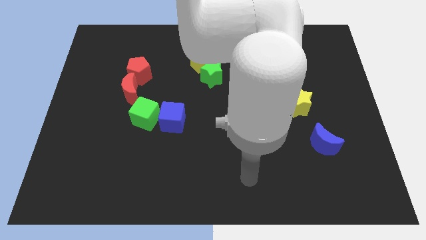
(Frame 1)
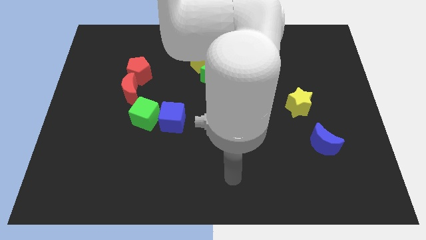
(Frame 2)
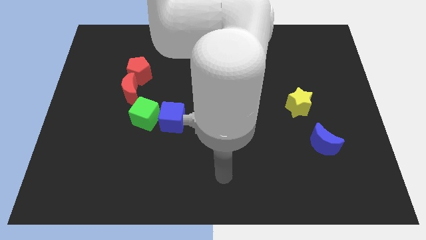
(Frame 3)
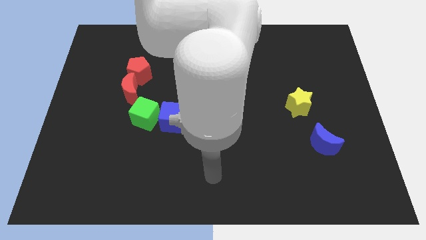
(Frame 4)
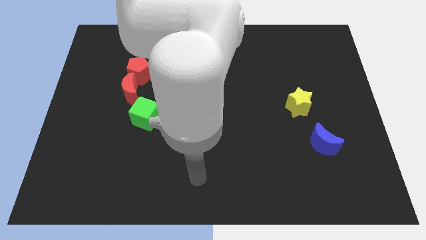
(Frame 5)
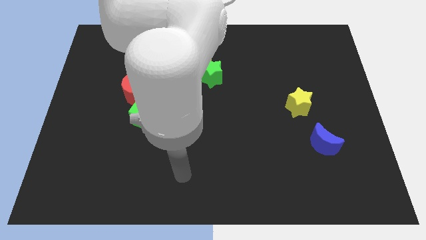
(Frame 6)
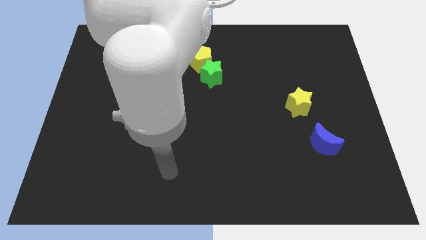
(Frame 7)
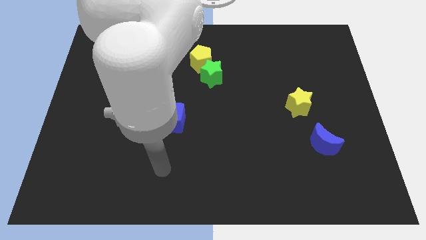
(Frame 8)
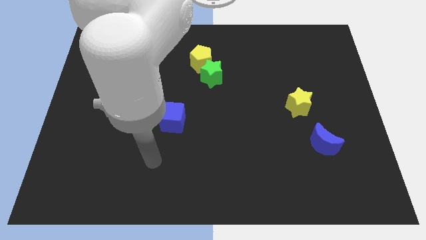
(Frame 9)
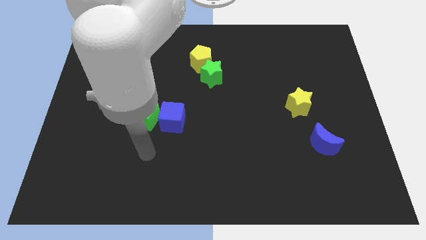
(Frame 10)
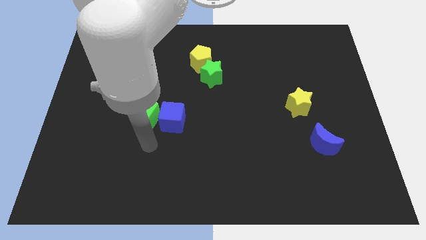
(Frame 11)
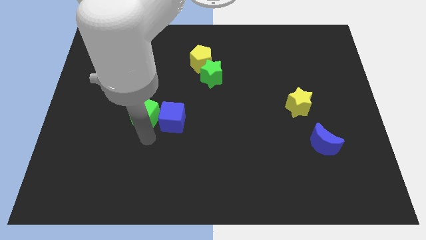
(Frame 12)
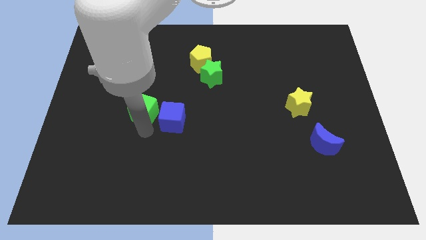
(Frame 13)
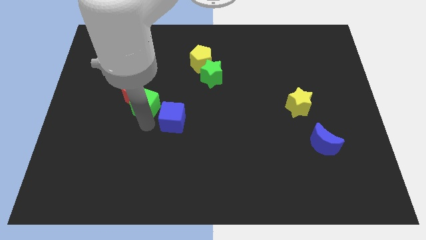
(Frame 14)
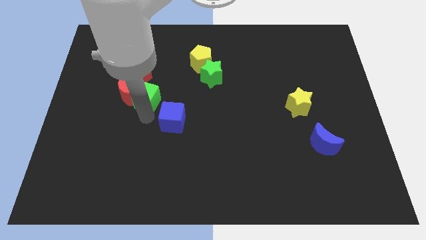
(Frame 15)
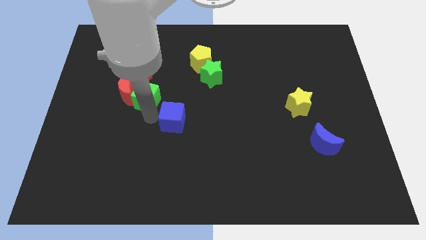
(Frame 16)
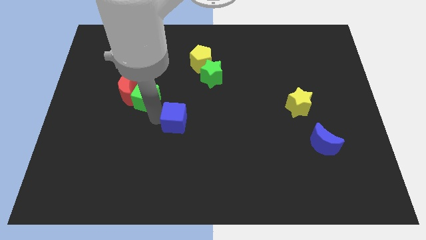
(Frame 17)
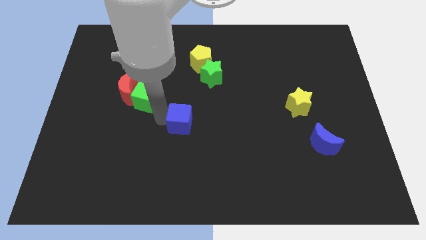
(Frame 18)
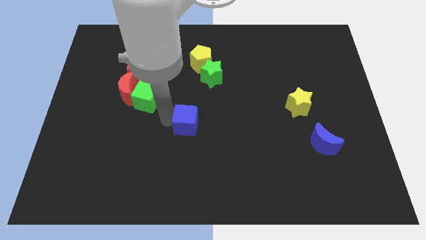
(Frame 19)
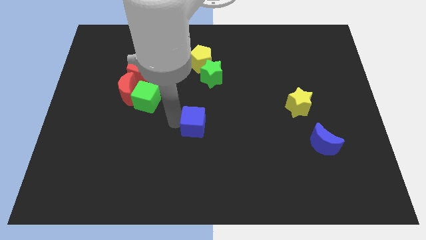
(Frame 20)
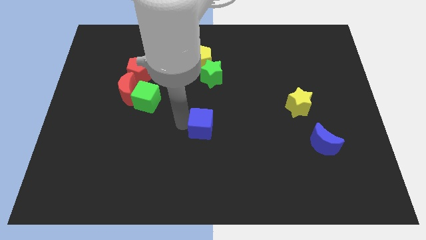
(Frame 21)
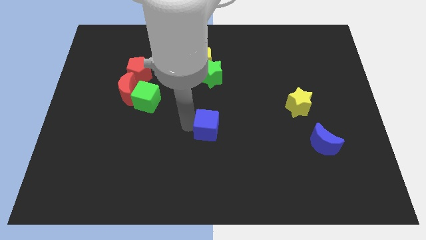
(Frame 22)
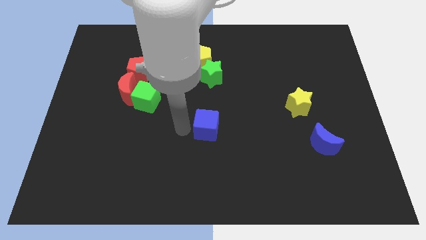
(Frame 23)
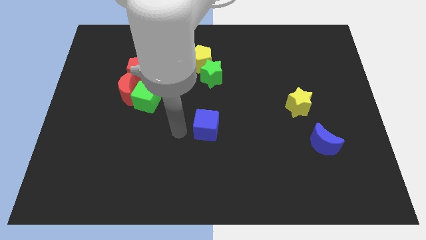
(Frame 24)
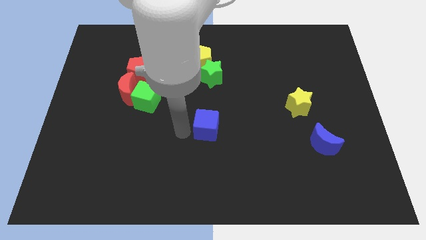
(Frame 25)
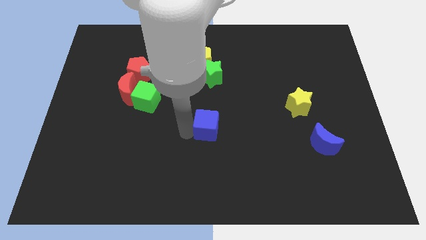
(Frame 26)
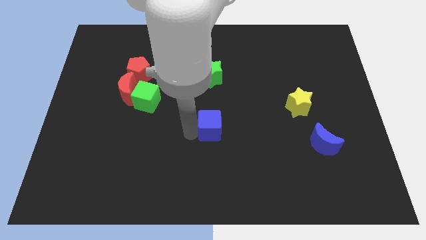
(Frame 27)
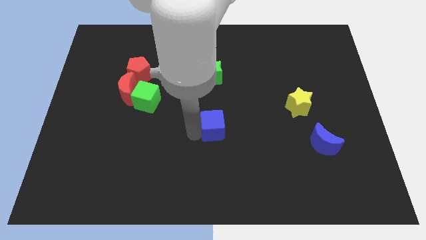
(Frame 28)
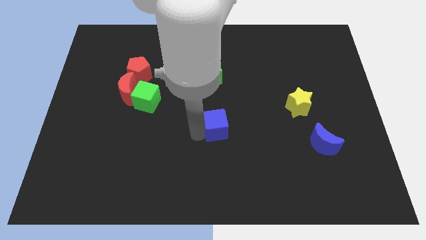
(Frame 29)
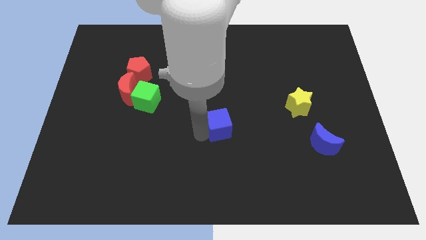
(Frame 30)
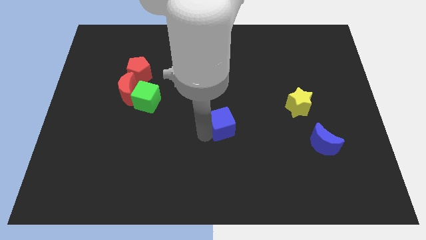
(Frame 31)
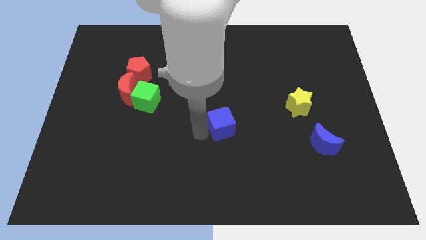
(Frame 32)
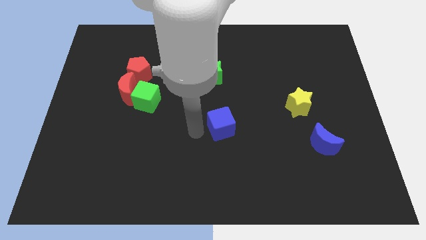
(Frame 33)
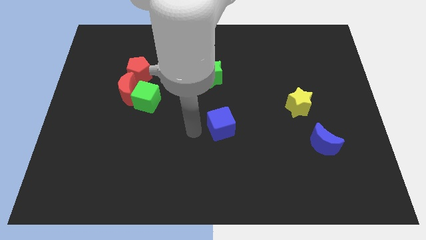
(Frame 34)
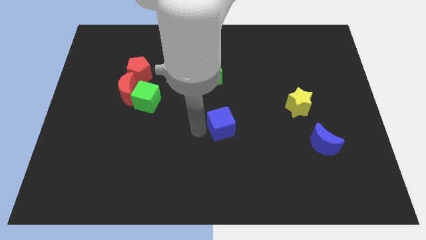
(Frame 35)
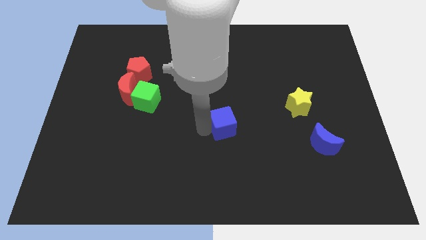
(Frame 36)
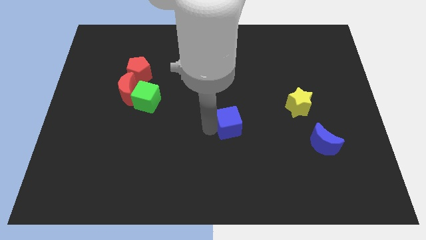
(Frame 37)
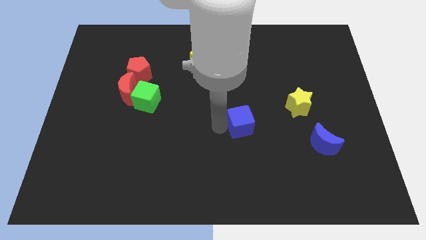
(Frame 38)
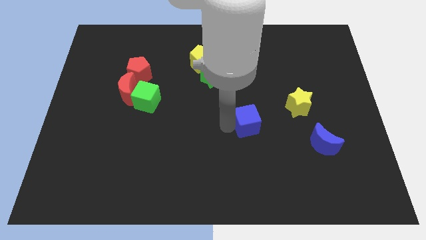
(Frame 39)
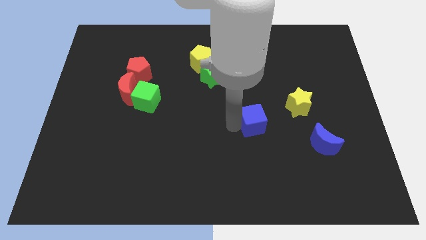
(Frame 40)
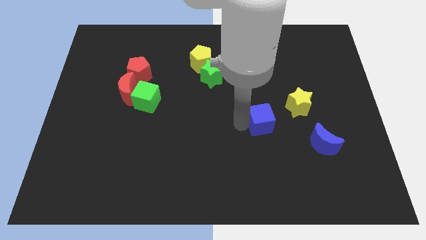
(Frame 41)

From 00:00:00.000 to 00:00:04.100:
move the blue cube to the right

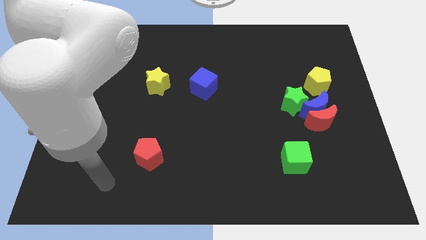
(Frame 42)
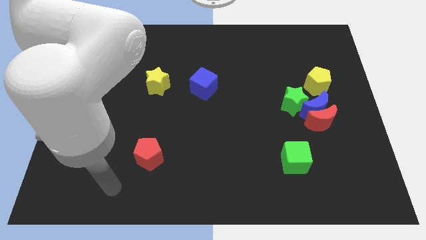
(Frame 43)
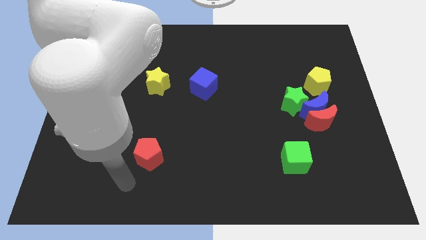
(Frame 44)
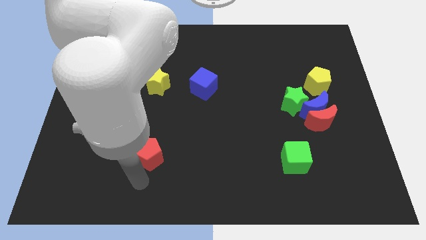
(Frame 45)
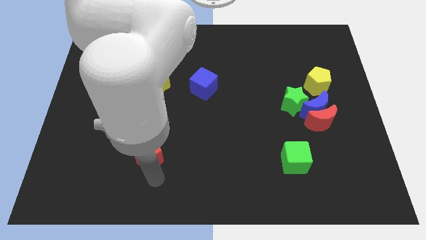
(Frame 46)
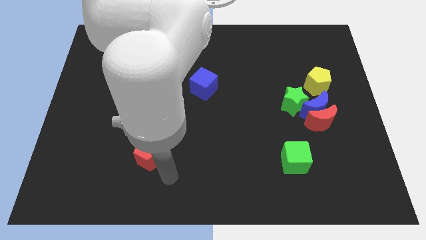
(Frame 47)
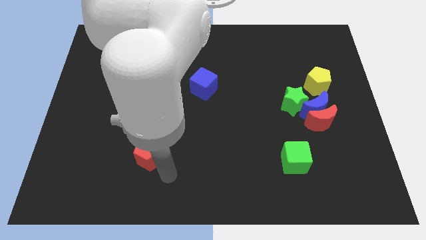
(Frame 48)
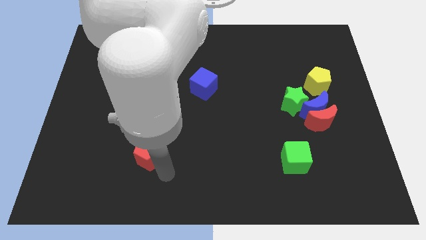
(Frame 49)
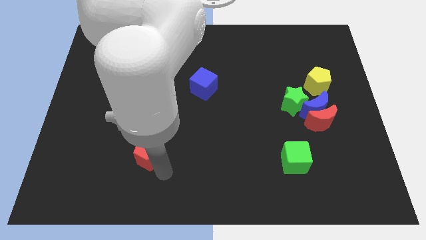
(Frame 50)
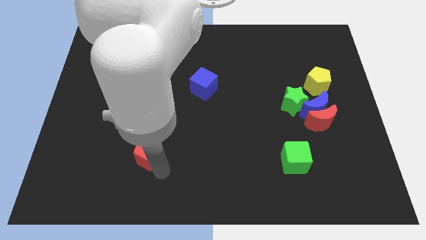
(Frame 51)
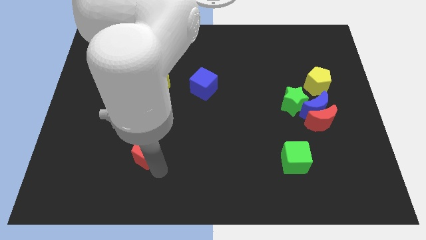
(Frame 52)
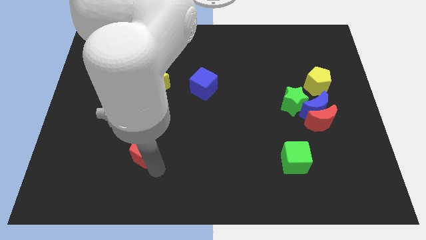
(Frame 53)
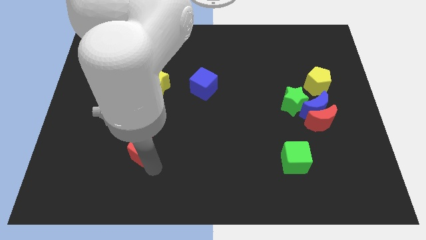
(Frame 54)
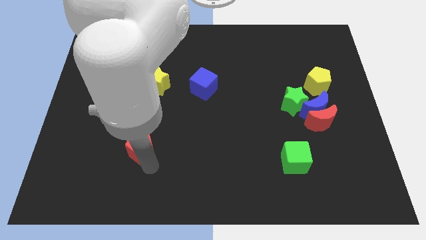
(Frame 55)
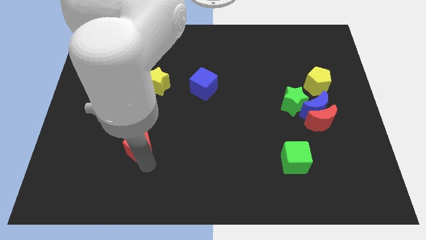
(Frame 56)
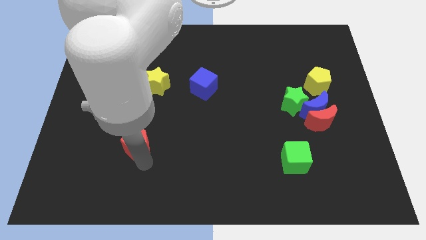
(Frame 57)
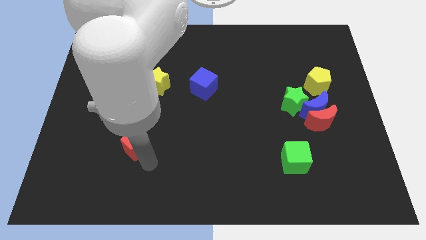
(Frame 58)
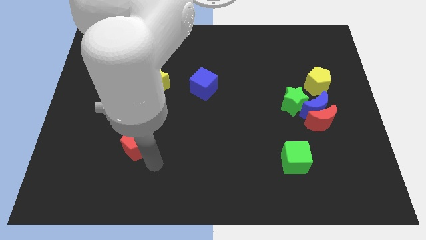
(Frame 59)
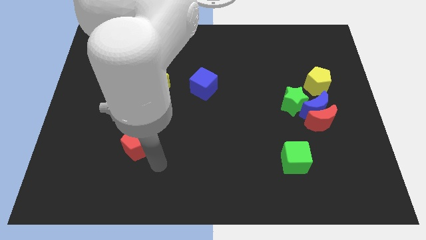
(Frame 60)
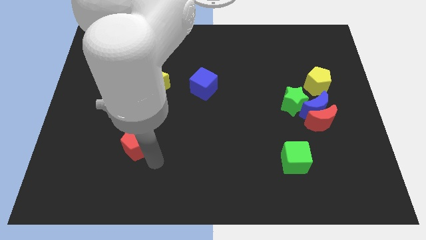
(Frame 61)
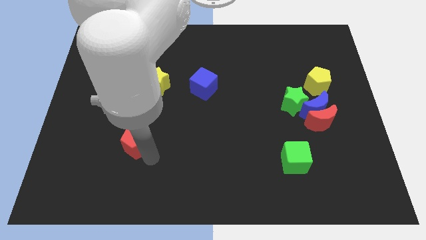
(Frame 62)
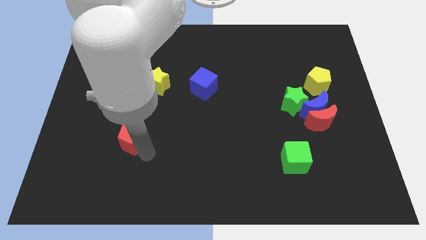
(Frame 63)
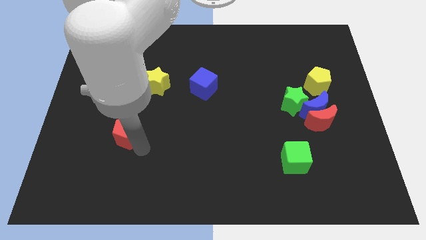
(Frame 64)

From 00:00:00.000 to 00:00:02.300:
slide the red pentagon a little up and then left

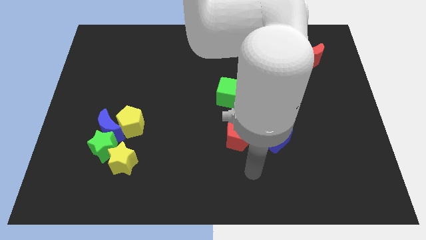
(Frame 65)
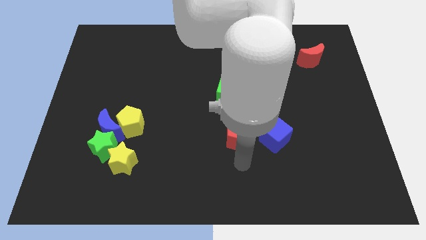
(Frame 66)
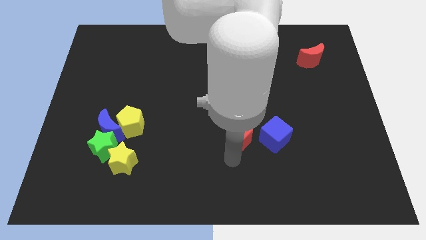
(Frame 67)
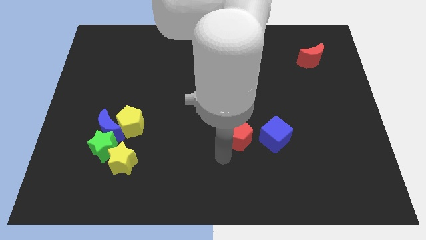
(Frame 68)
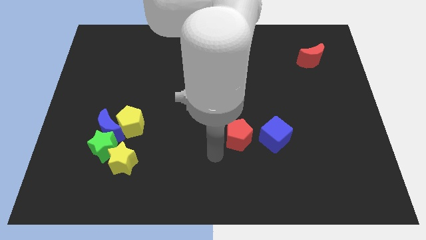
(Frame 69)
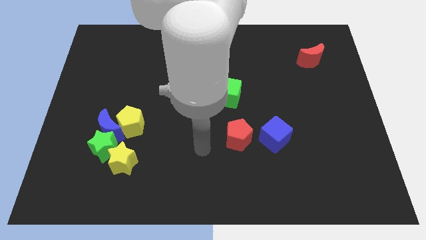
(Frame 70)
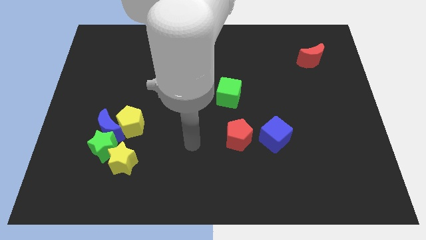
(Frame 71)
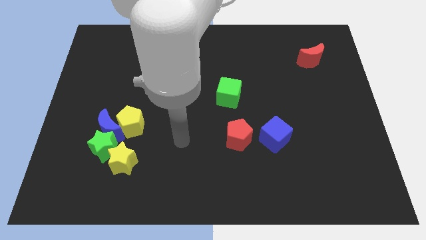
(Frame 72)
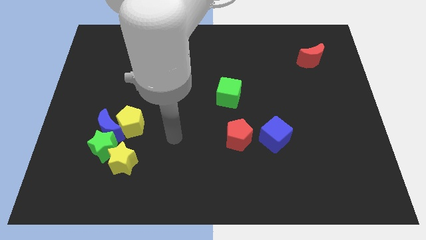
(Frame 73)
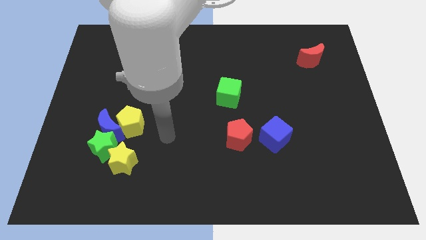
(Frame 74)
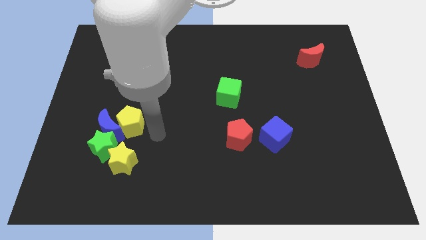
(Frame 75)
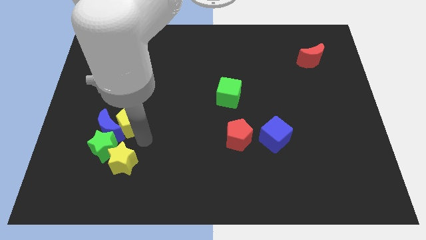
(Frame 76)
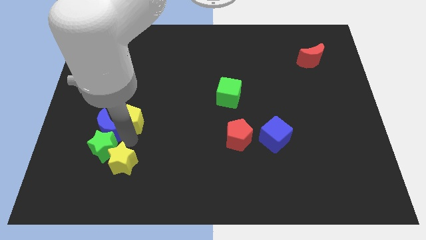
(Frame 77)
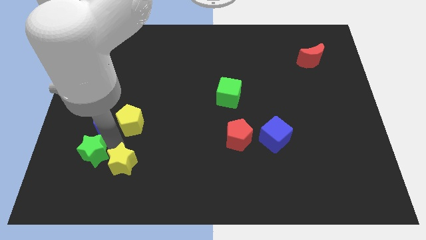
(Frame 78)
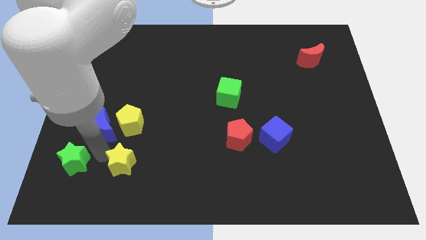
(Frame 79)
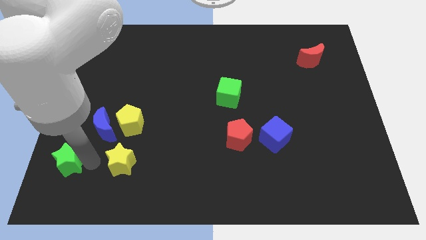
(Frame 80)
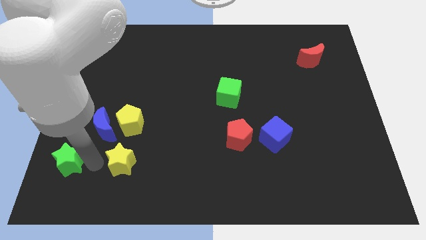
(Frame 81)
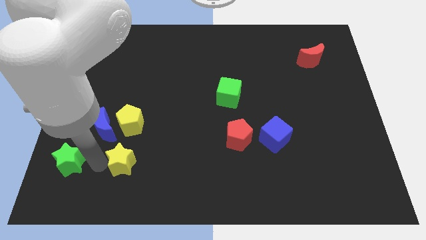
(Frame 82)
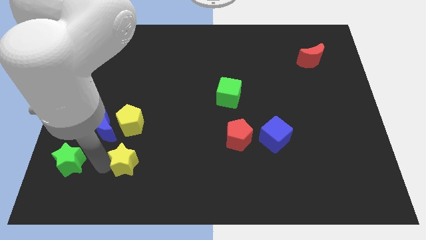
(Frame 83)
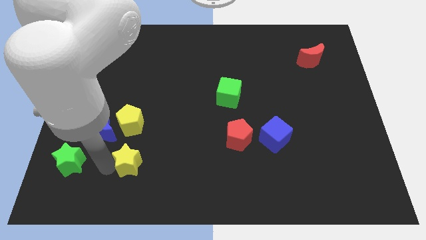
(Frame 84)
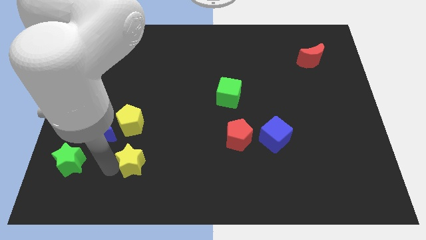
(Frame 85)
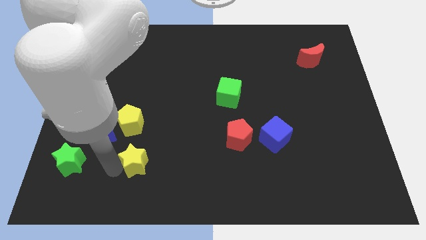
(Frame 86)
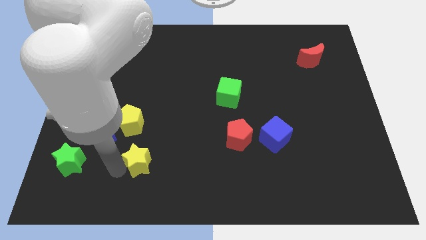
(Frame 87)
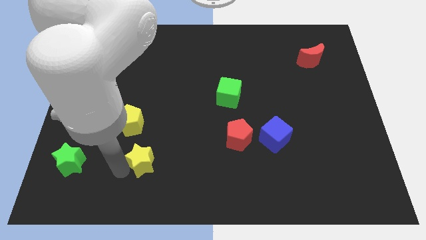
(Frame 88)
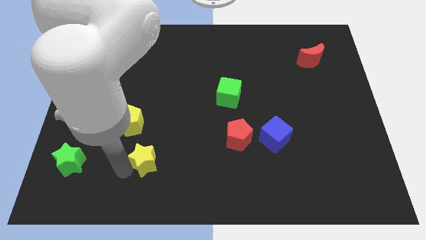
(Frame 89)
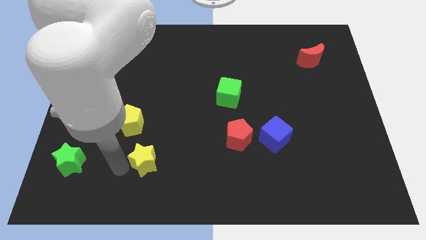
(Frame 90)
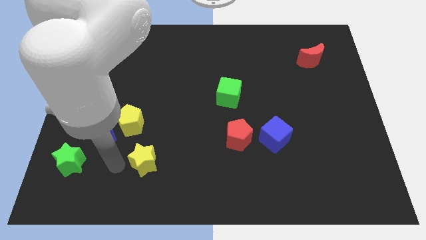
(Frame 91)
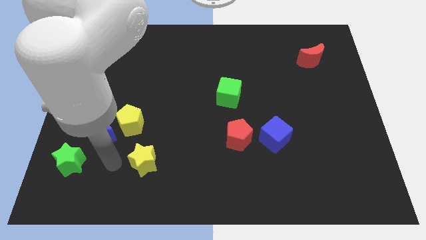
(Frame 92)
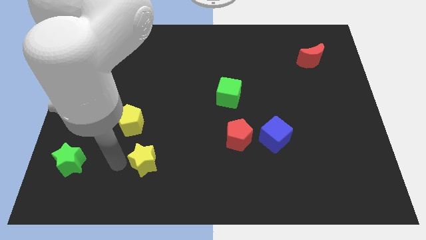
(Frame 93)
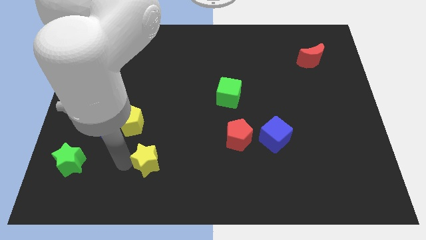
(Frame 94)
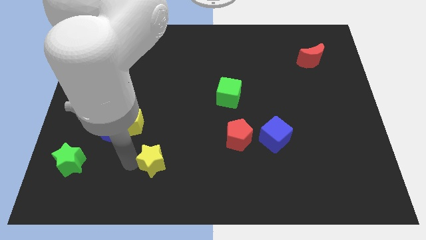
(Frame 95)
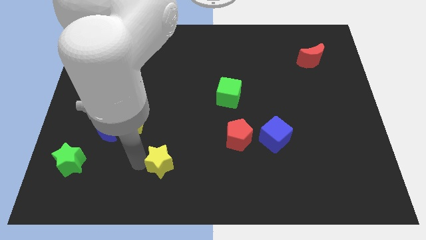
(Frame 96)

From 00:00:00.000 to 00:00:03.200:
slide the yellow star a little bit right
